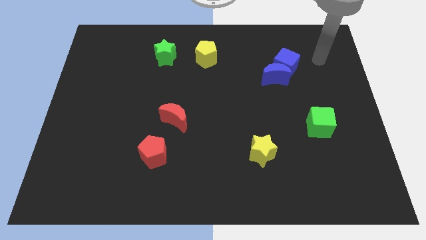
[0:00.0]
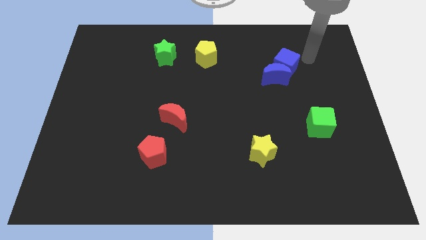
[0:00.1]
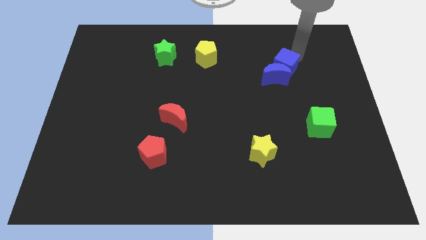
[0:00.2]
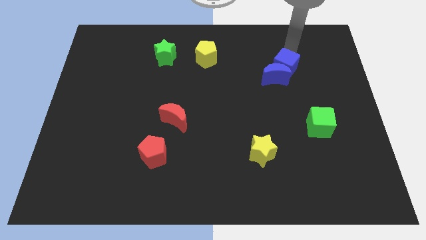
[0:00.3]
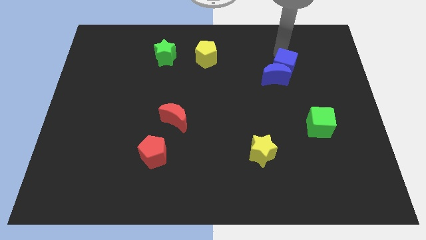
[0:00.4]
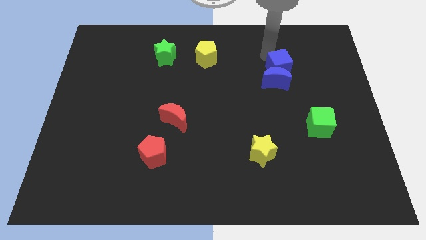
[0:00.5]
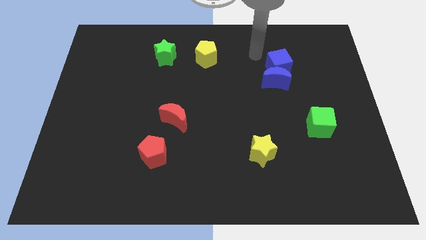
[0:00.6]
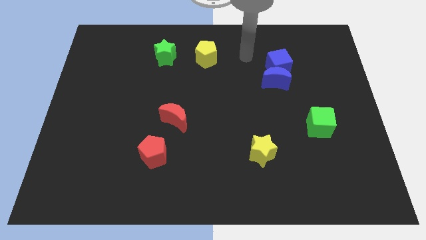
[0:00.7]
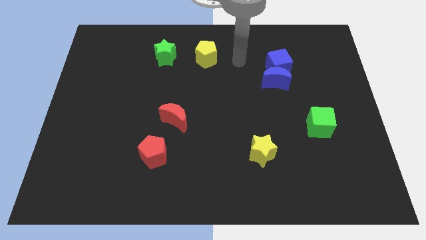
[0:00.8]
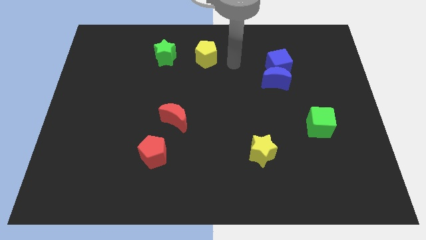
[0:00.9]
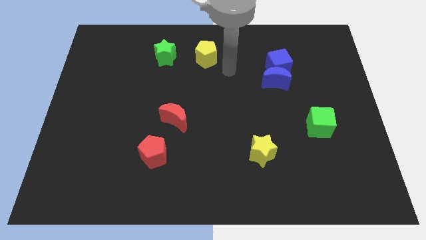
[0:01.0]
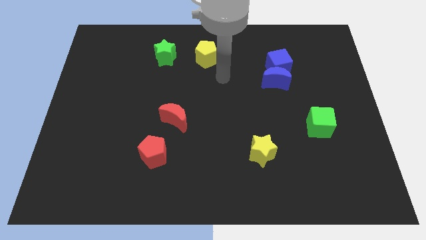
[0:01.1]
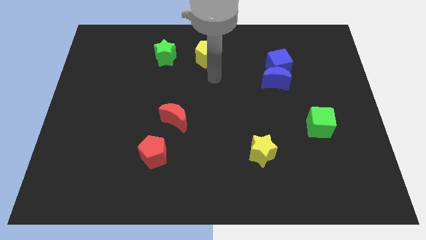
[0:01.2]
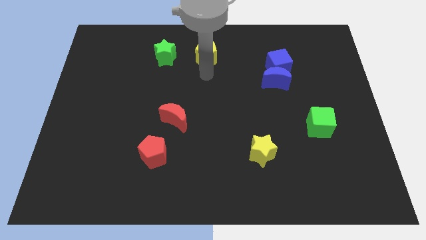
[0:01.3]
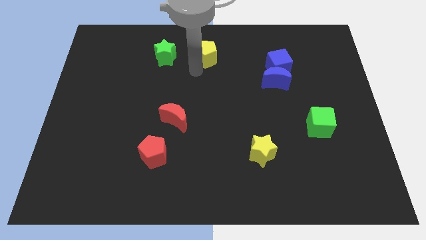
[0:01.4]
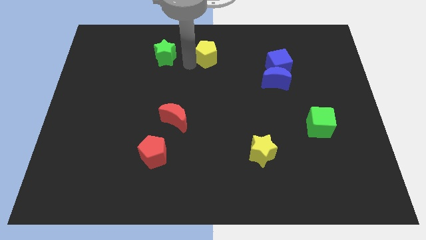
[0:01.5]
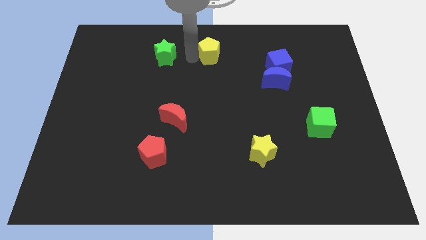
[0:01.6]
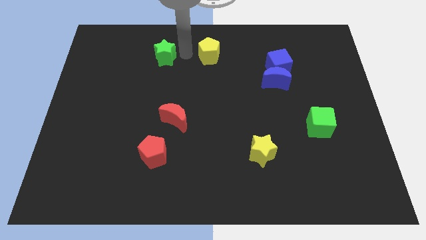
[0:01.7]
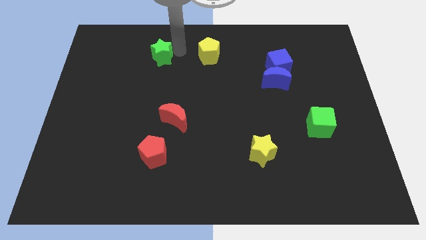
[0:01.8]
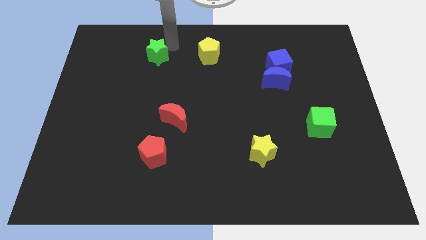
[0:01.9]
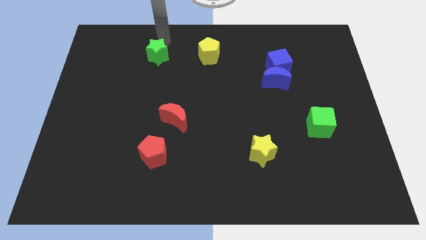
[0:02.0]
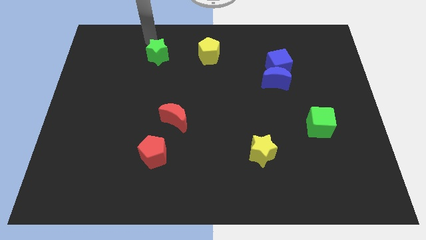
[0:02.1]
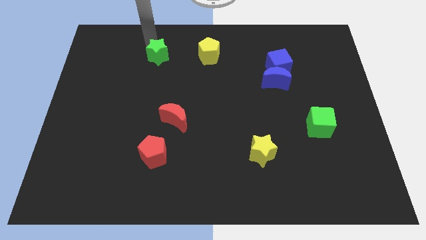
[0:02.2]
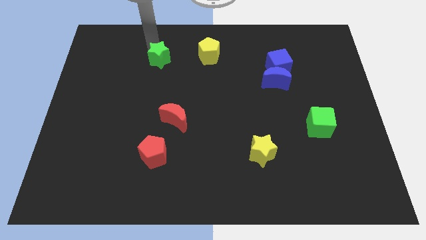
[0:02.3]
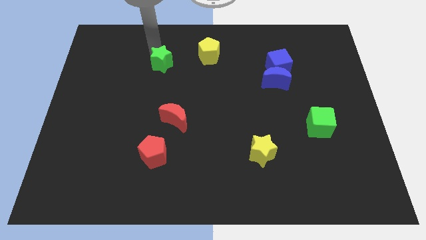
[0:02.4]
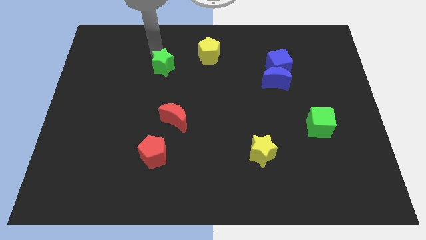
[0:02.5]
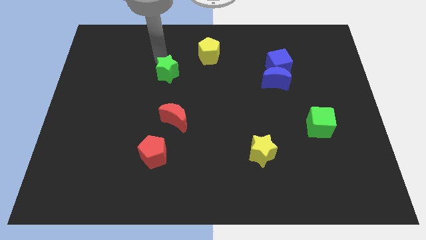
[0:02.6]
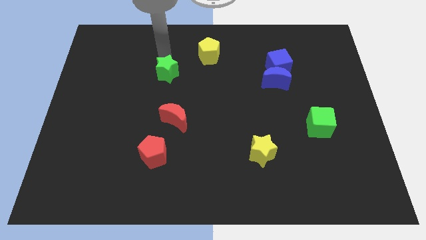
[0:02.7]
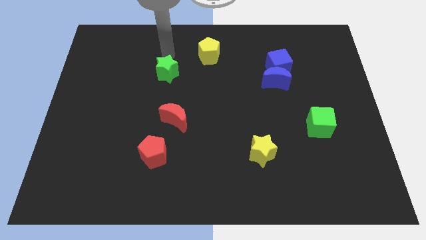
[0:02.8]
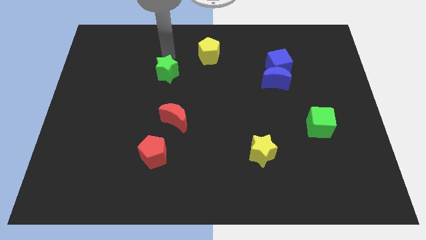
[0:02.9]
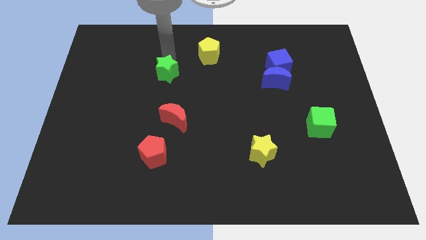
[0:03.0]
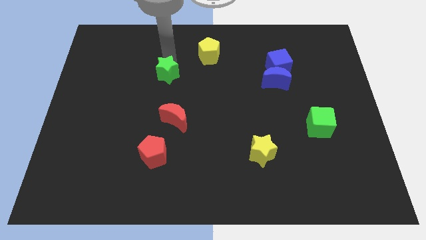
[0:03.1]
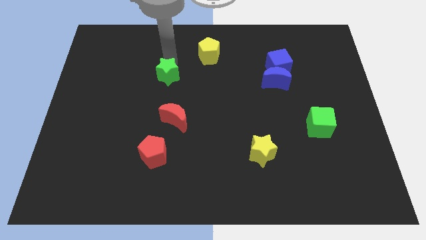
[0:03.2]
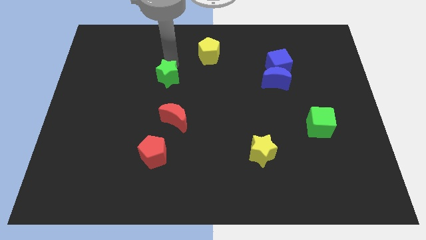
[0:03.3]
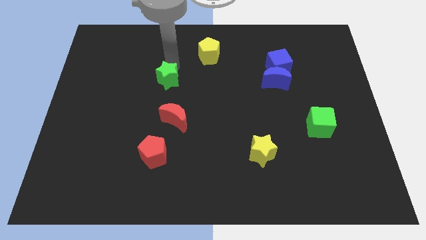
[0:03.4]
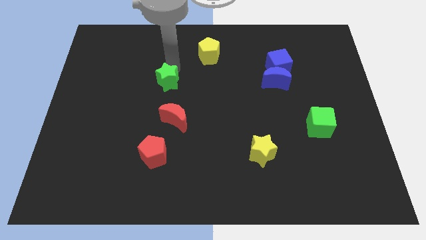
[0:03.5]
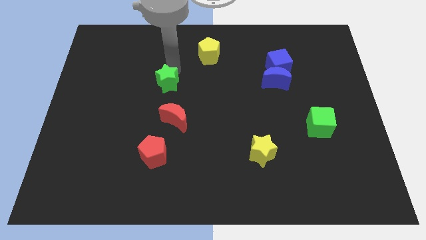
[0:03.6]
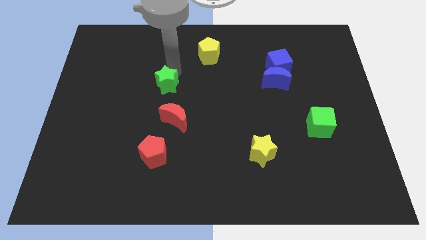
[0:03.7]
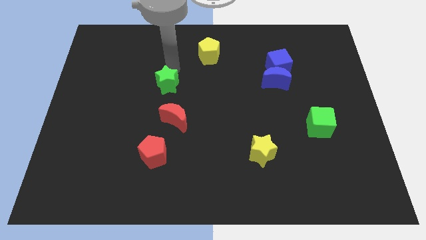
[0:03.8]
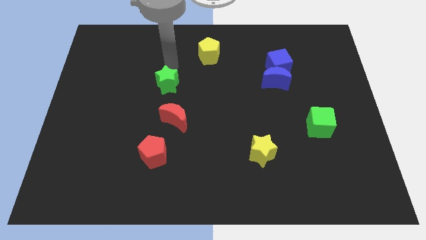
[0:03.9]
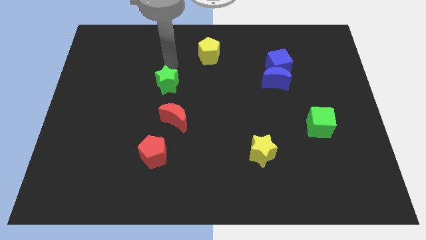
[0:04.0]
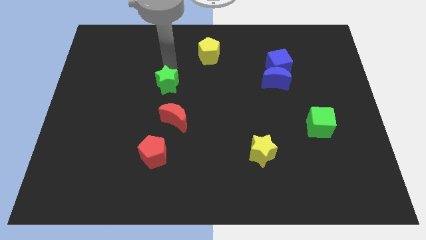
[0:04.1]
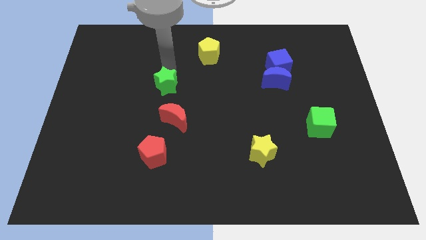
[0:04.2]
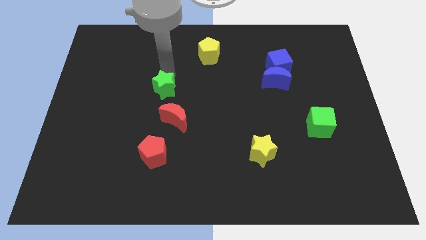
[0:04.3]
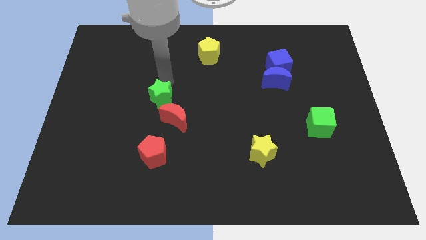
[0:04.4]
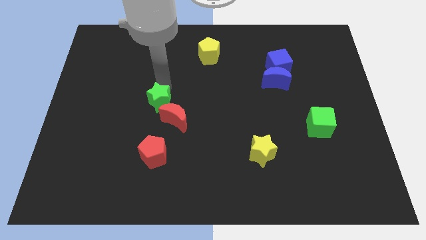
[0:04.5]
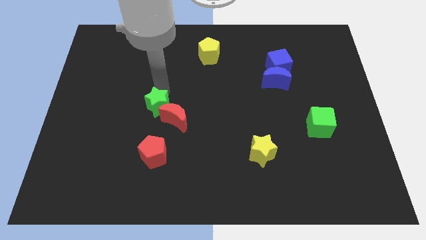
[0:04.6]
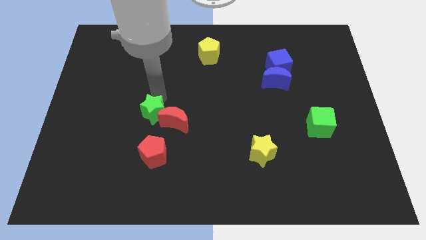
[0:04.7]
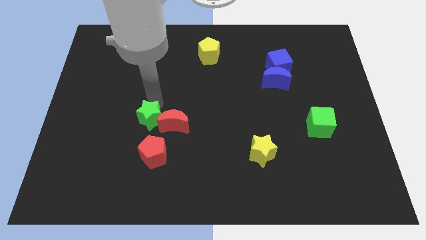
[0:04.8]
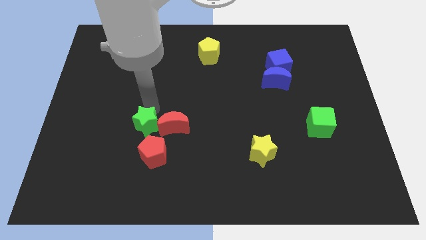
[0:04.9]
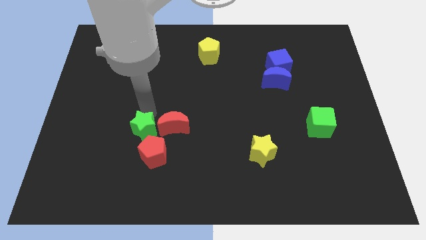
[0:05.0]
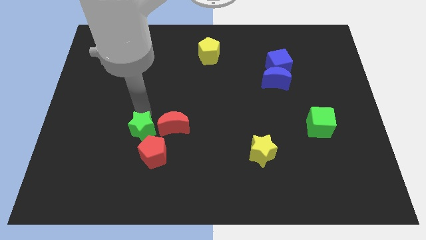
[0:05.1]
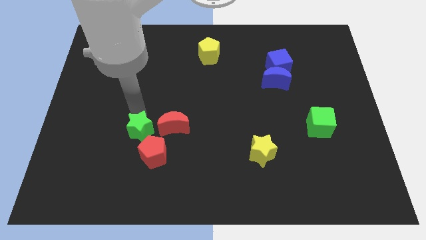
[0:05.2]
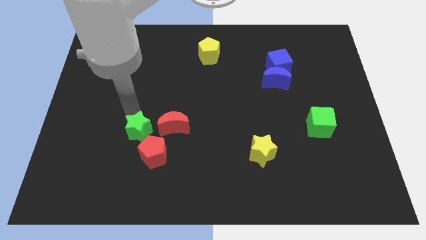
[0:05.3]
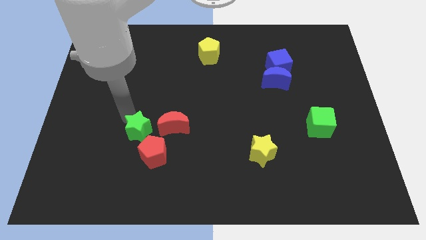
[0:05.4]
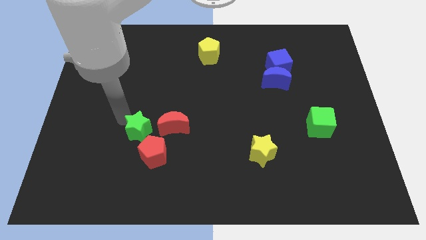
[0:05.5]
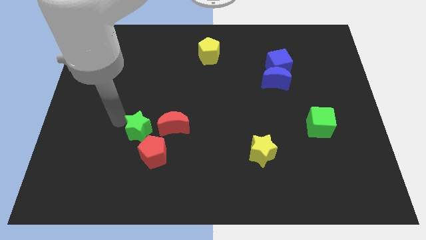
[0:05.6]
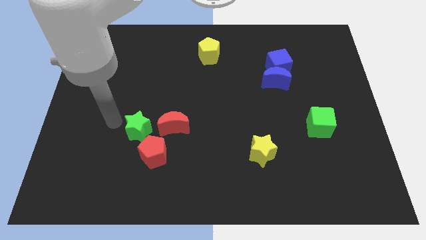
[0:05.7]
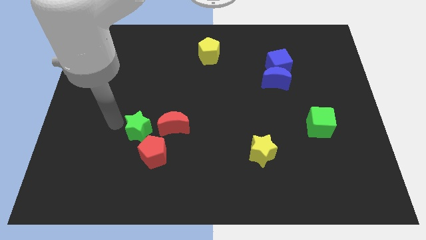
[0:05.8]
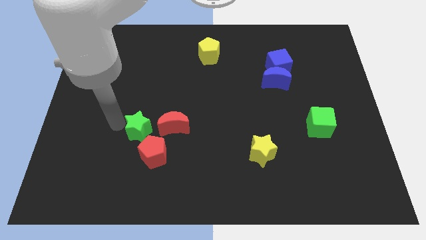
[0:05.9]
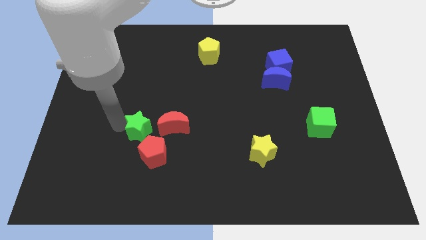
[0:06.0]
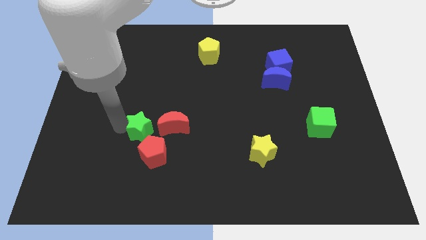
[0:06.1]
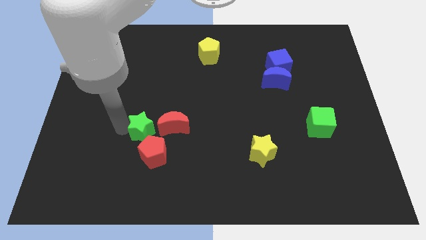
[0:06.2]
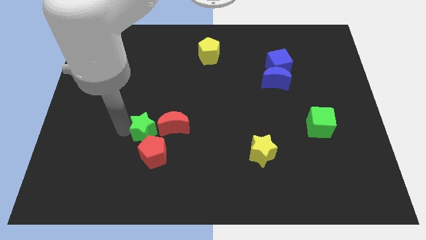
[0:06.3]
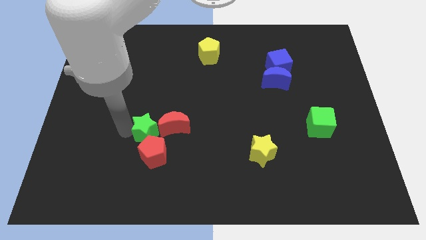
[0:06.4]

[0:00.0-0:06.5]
slide the green star close to the red pentagon
